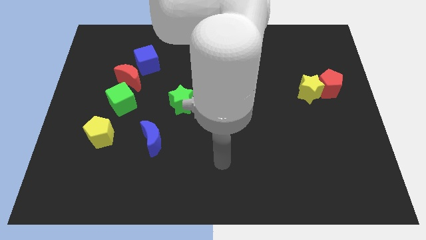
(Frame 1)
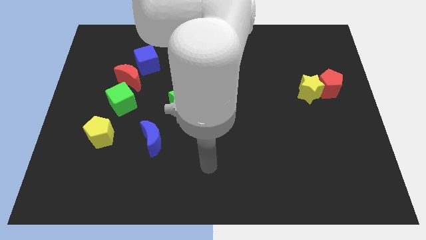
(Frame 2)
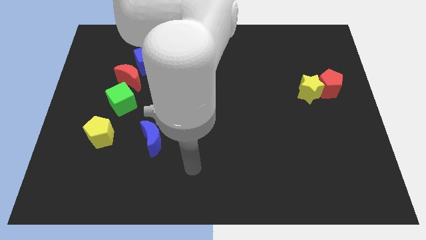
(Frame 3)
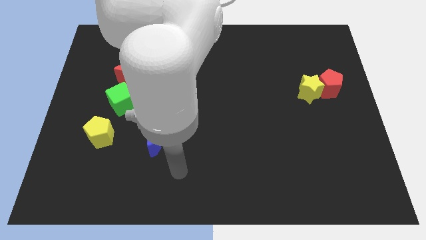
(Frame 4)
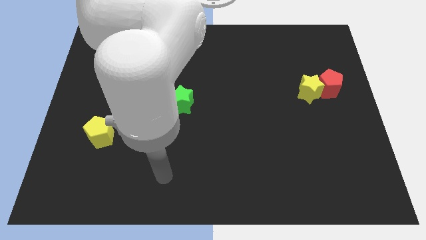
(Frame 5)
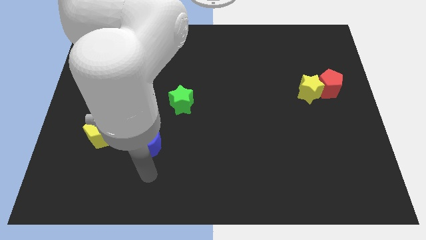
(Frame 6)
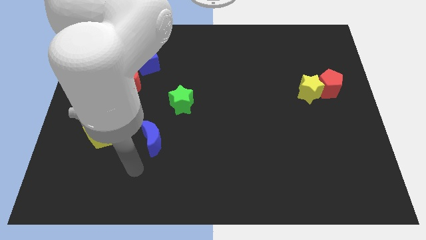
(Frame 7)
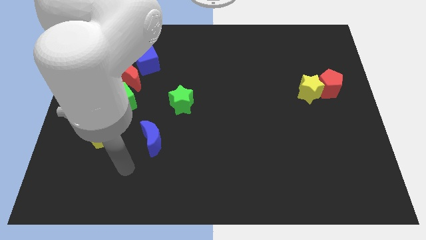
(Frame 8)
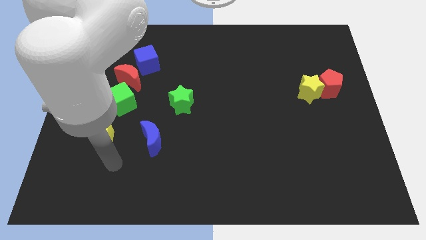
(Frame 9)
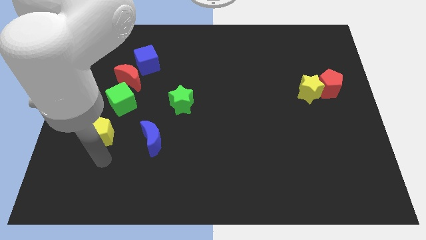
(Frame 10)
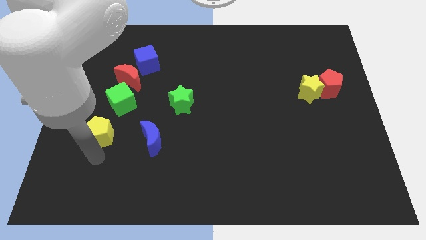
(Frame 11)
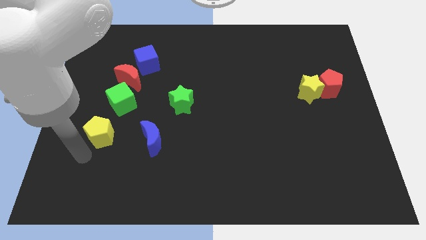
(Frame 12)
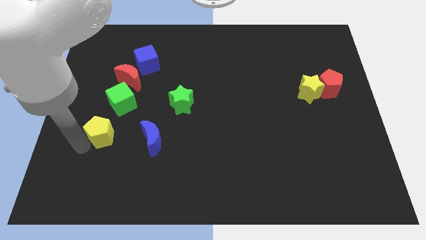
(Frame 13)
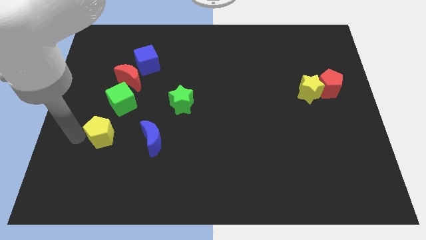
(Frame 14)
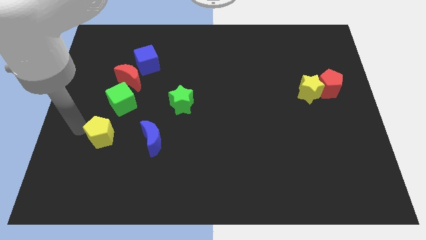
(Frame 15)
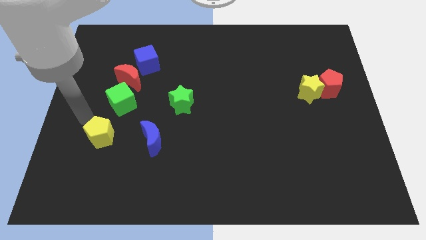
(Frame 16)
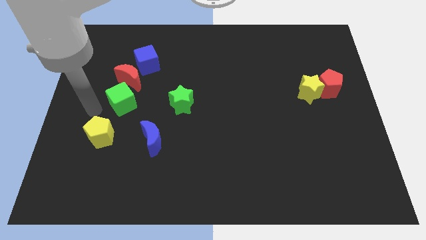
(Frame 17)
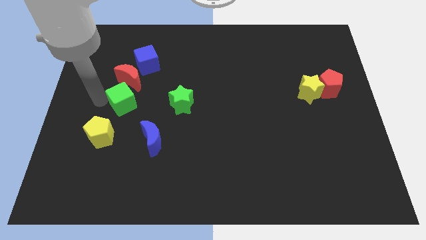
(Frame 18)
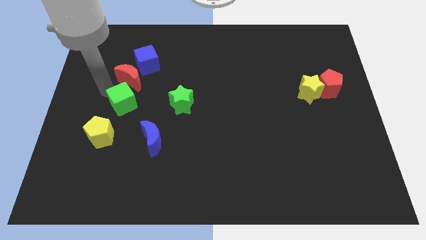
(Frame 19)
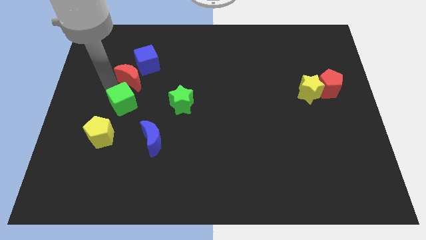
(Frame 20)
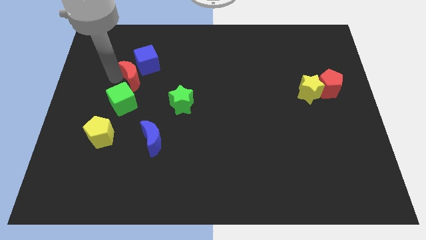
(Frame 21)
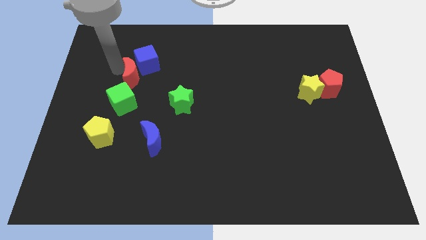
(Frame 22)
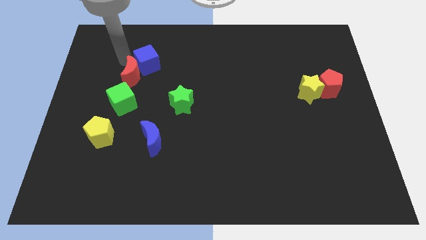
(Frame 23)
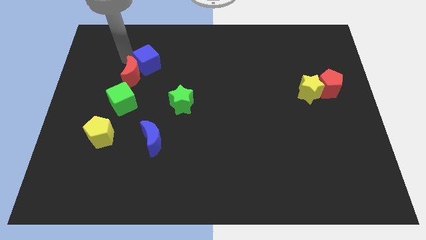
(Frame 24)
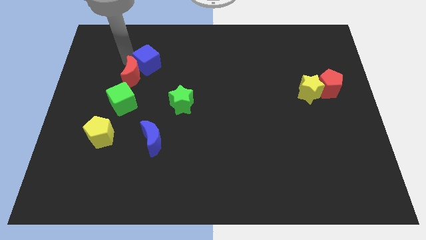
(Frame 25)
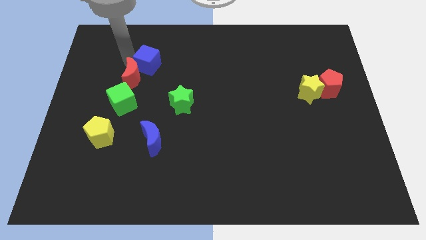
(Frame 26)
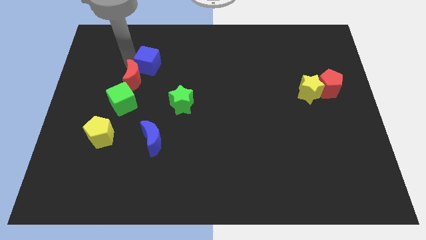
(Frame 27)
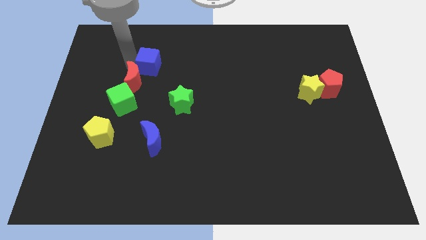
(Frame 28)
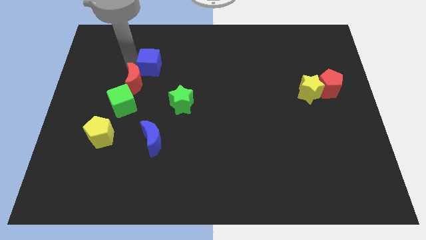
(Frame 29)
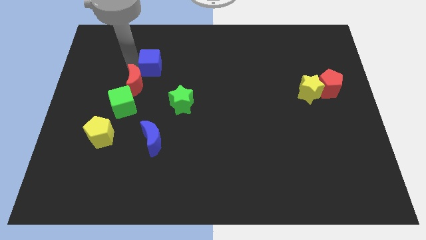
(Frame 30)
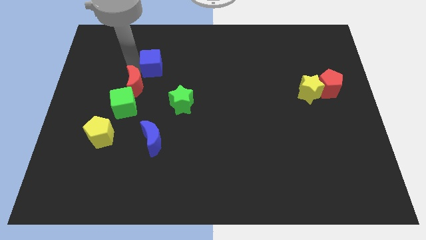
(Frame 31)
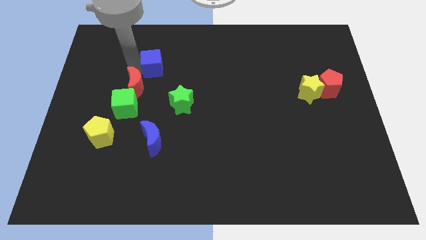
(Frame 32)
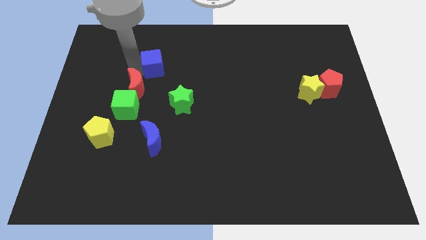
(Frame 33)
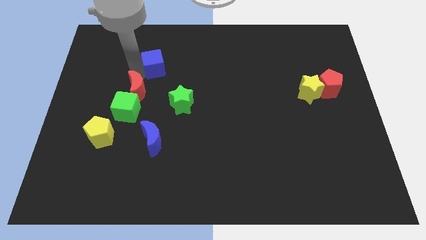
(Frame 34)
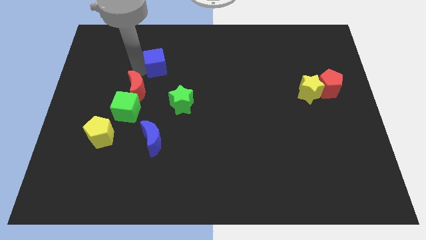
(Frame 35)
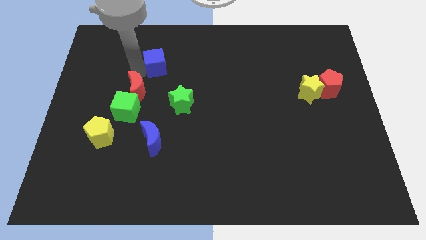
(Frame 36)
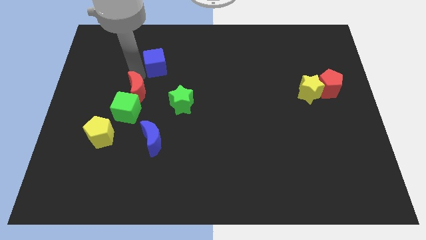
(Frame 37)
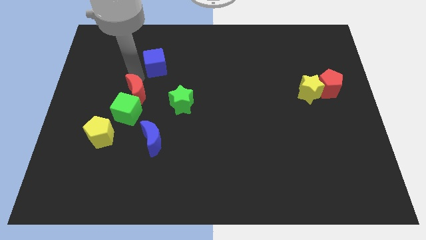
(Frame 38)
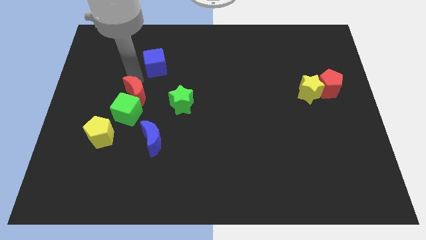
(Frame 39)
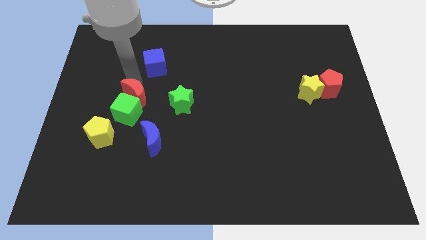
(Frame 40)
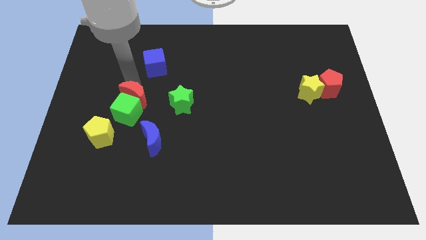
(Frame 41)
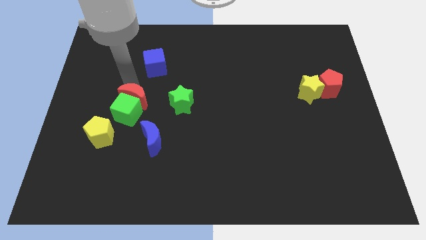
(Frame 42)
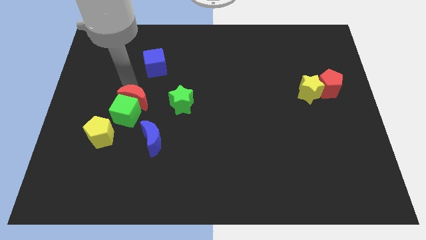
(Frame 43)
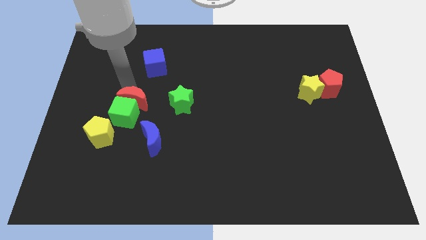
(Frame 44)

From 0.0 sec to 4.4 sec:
push the red moon slightly downwards

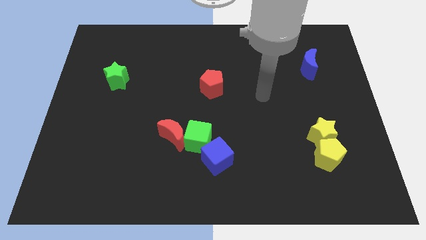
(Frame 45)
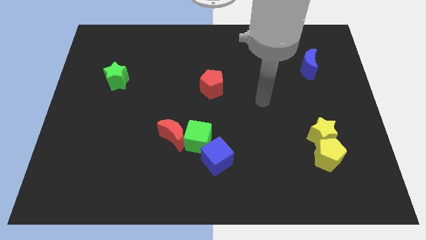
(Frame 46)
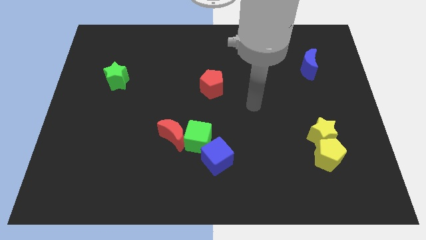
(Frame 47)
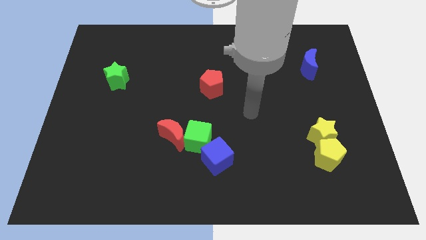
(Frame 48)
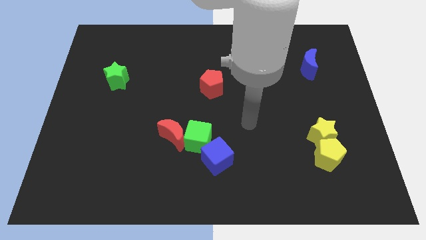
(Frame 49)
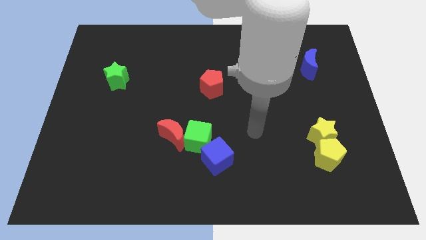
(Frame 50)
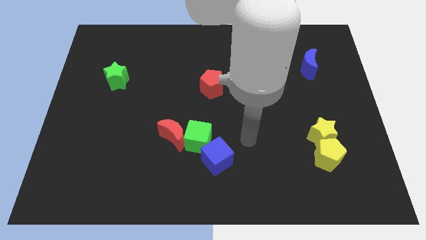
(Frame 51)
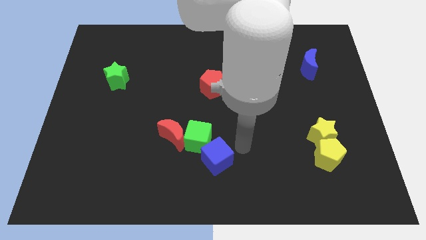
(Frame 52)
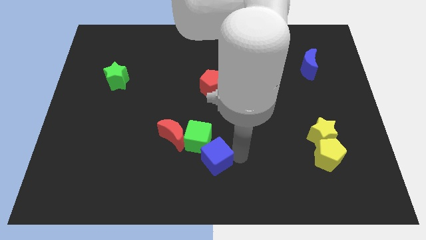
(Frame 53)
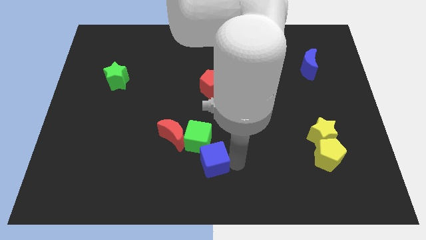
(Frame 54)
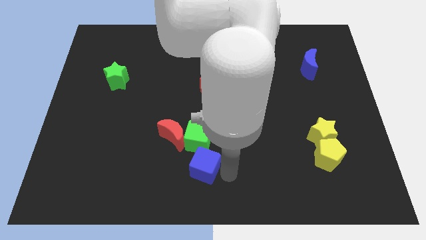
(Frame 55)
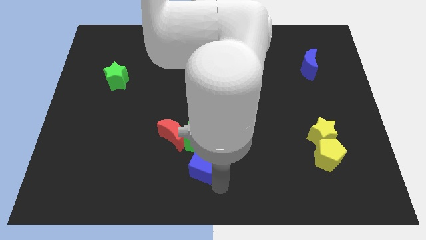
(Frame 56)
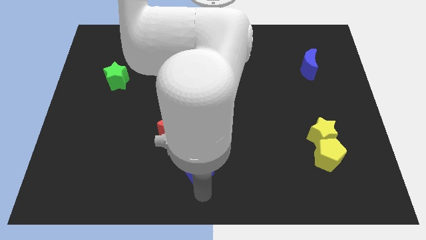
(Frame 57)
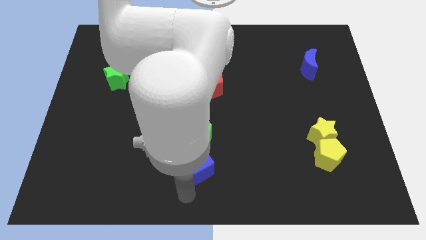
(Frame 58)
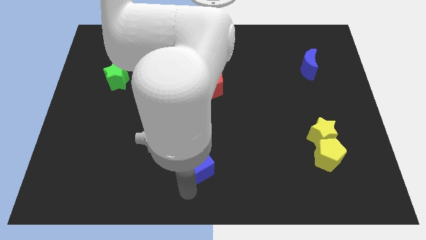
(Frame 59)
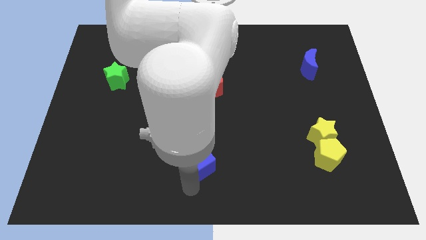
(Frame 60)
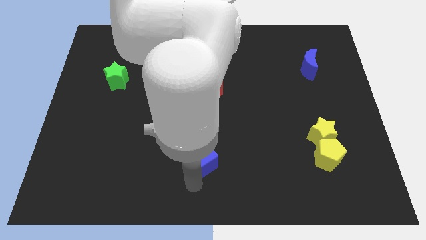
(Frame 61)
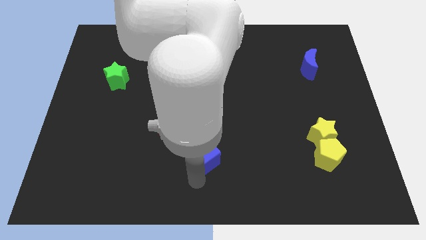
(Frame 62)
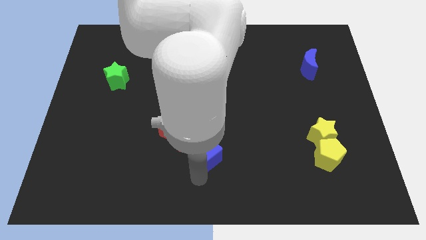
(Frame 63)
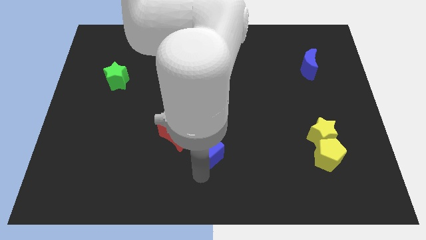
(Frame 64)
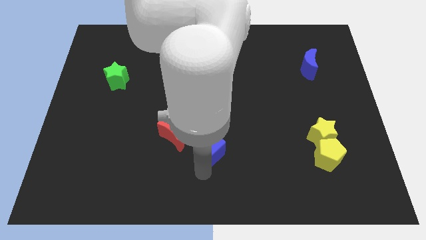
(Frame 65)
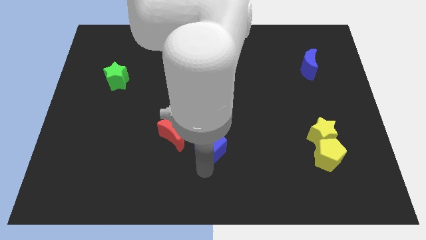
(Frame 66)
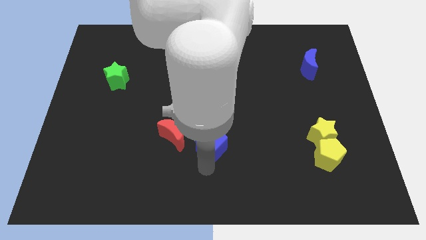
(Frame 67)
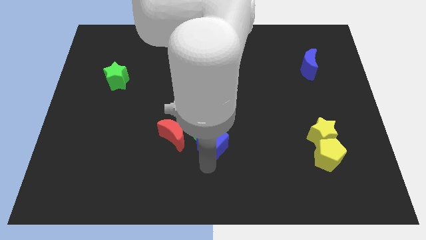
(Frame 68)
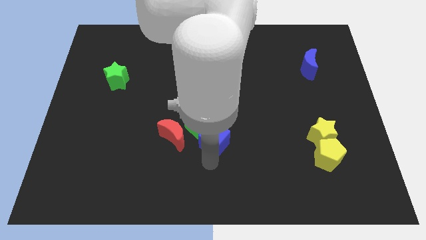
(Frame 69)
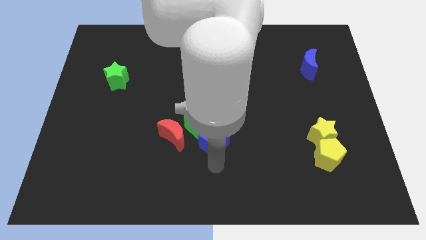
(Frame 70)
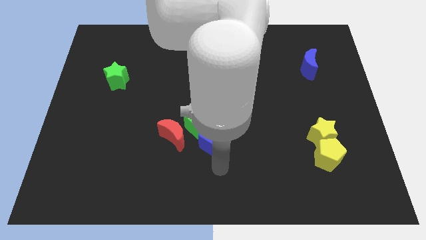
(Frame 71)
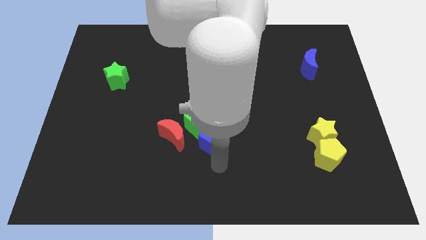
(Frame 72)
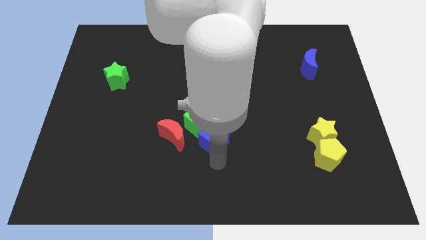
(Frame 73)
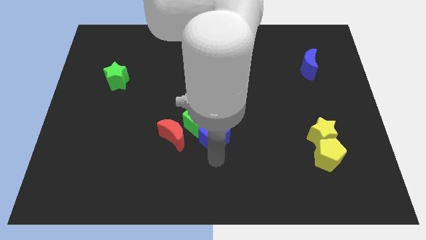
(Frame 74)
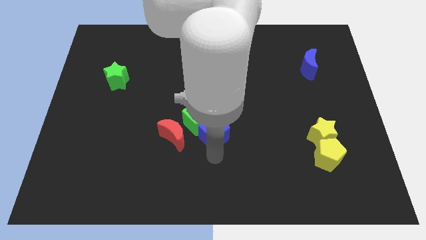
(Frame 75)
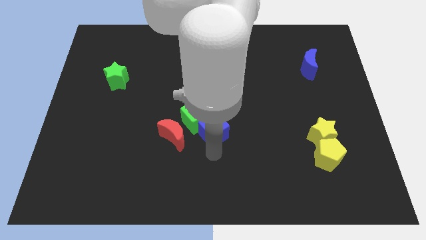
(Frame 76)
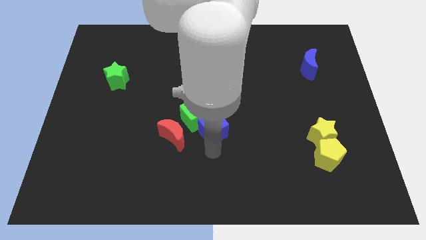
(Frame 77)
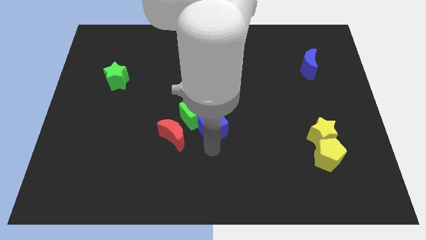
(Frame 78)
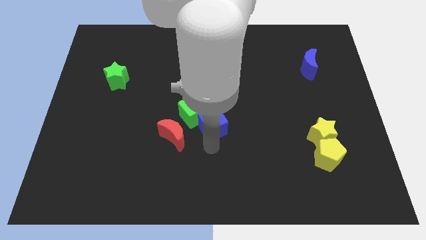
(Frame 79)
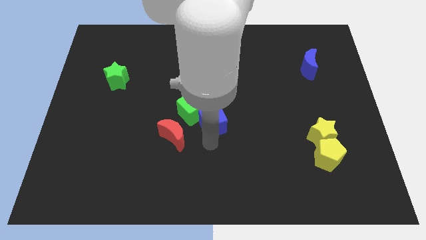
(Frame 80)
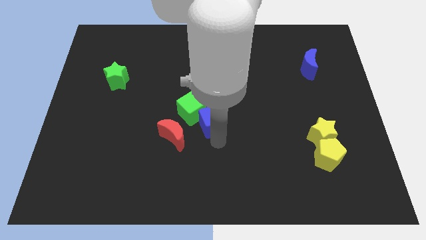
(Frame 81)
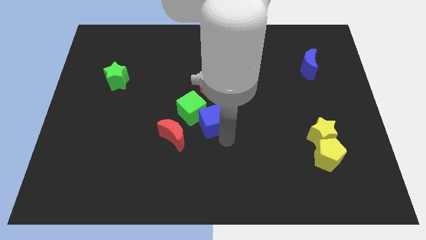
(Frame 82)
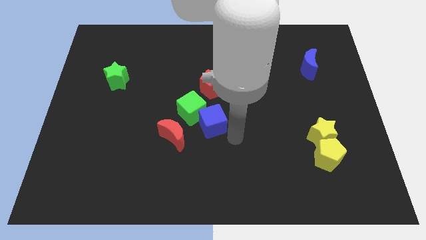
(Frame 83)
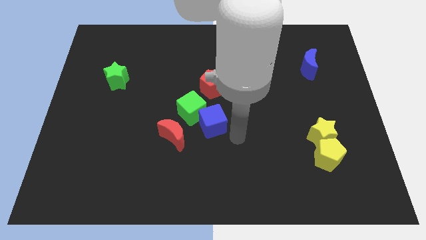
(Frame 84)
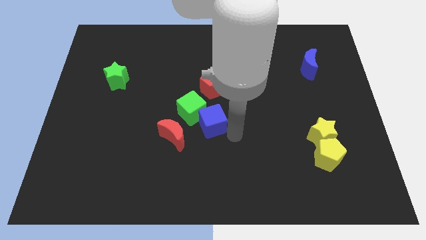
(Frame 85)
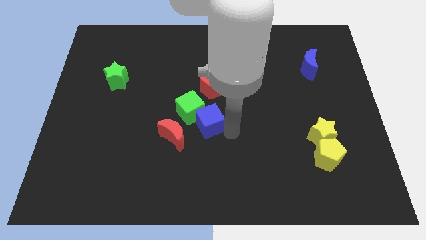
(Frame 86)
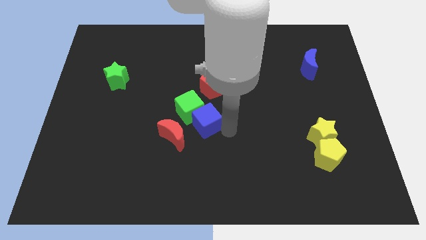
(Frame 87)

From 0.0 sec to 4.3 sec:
slide the blue cube somewhat up and left
